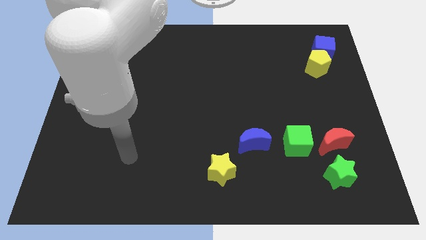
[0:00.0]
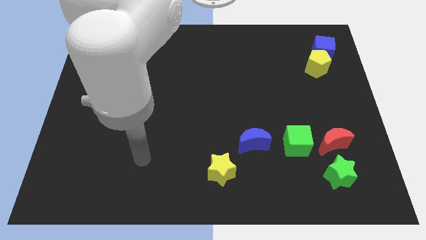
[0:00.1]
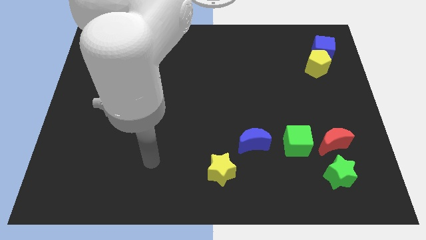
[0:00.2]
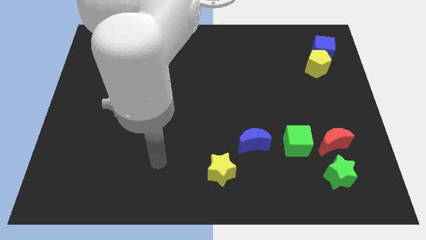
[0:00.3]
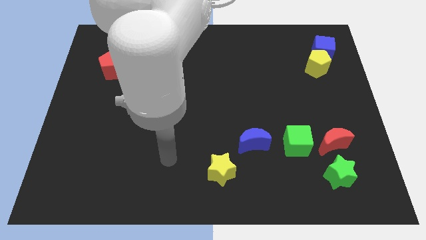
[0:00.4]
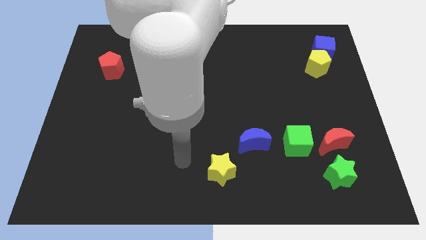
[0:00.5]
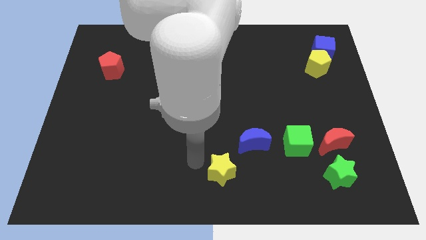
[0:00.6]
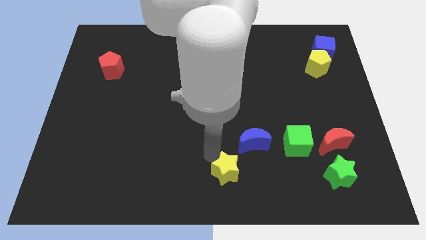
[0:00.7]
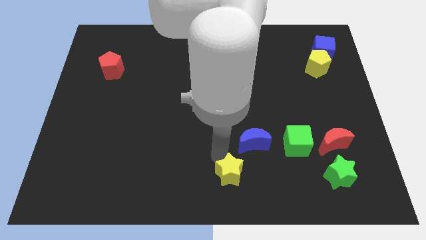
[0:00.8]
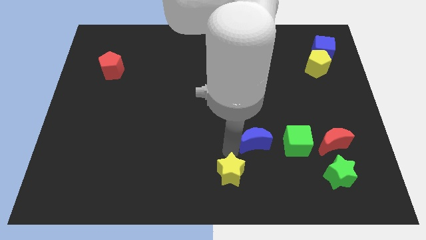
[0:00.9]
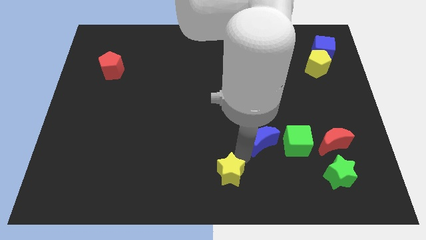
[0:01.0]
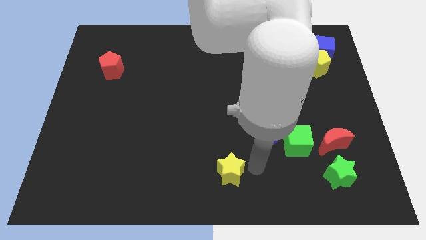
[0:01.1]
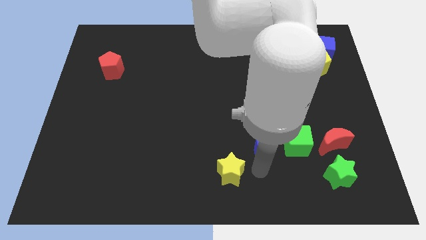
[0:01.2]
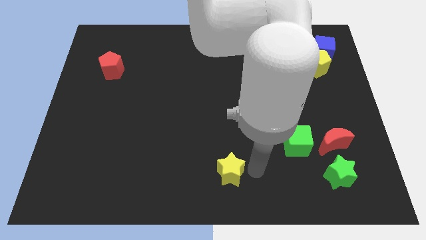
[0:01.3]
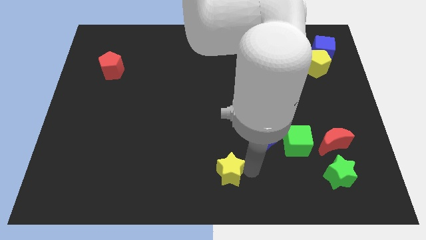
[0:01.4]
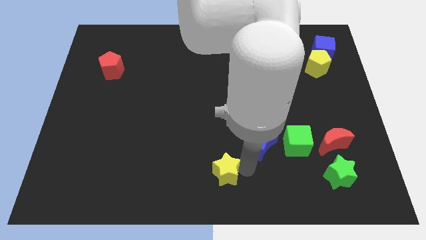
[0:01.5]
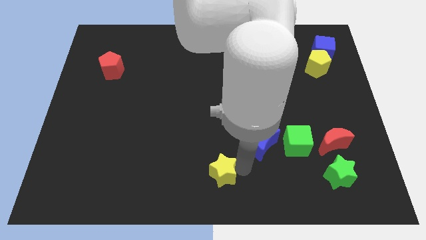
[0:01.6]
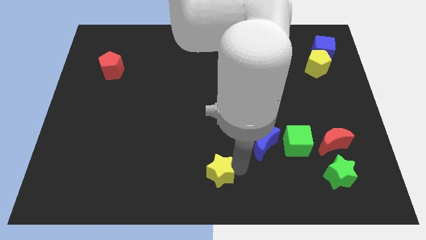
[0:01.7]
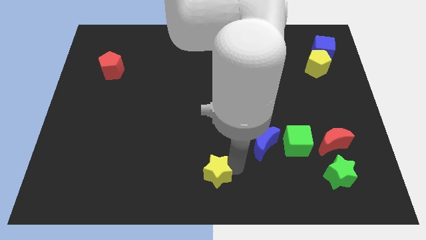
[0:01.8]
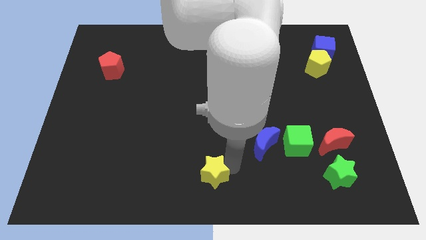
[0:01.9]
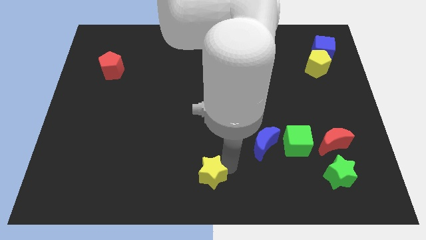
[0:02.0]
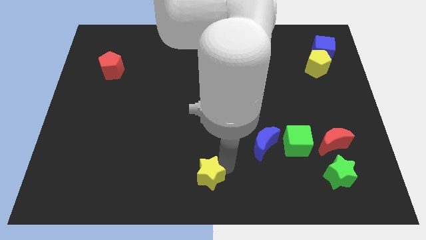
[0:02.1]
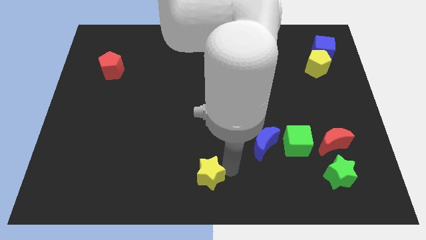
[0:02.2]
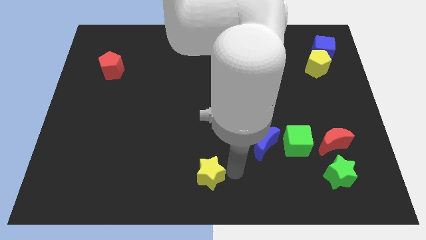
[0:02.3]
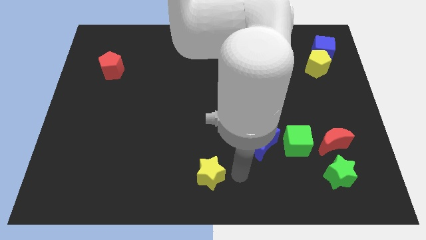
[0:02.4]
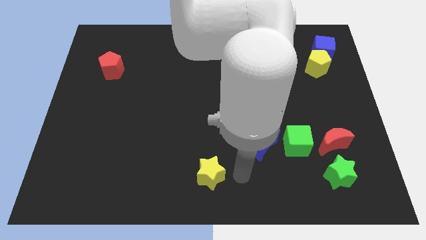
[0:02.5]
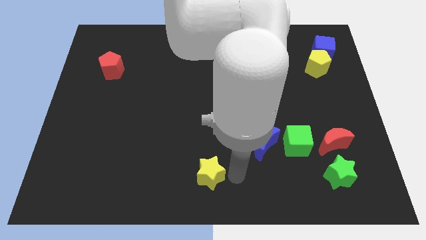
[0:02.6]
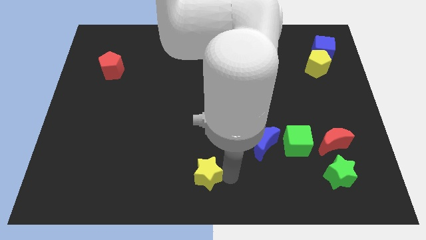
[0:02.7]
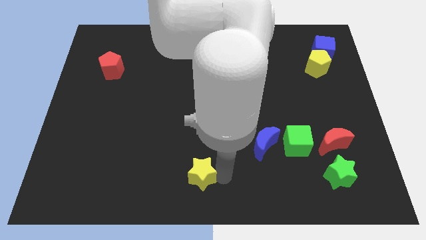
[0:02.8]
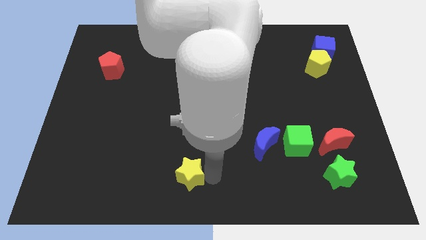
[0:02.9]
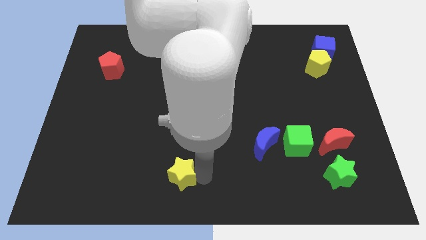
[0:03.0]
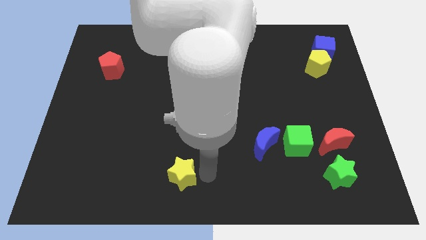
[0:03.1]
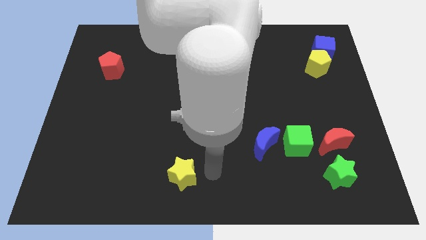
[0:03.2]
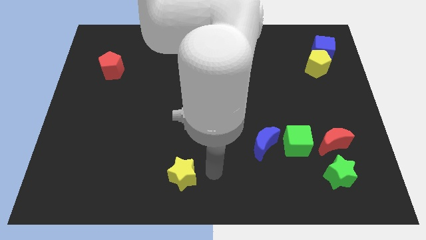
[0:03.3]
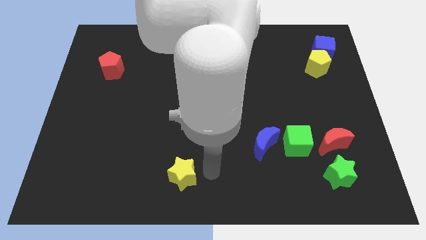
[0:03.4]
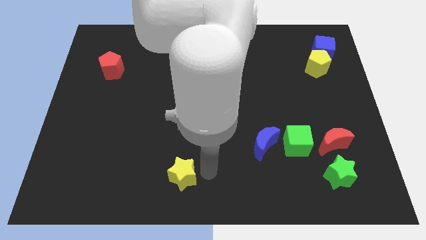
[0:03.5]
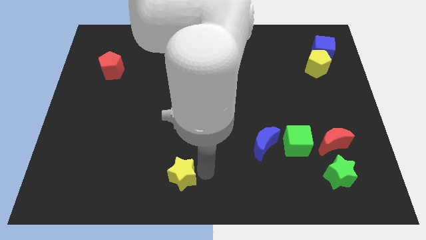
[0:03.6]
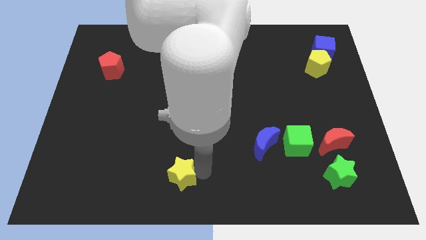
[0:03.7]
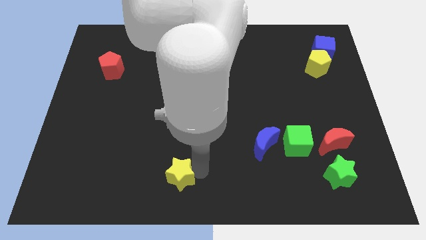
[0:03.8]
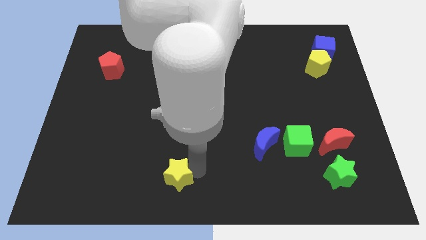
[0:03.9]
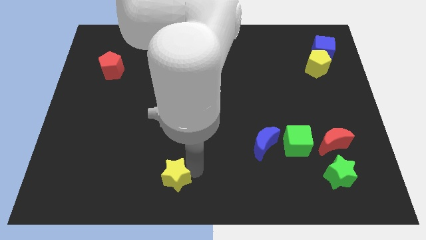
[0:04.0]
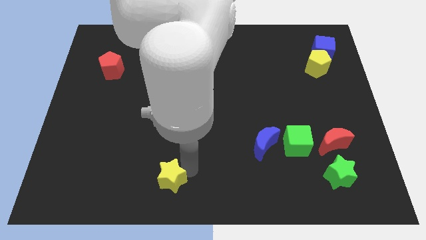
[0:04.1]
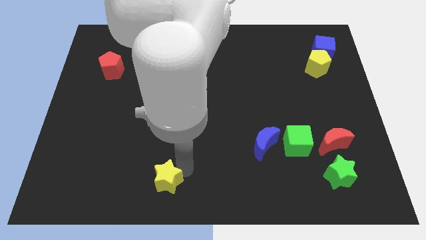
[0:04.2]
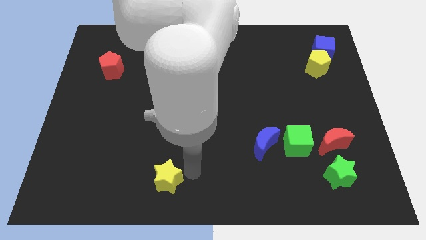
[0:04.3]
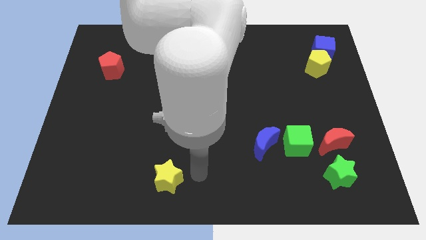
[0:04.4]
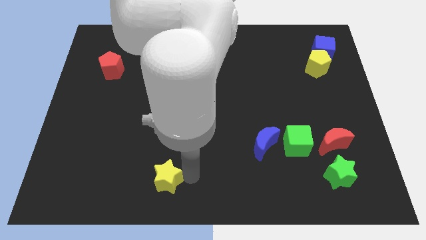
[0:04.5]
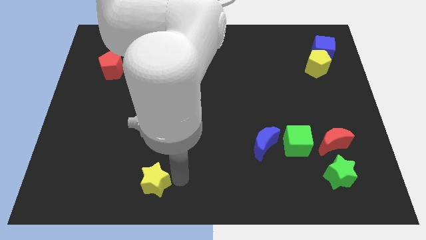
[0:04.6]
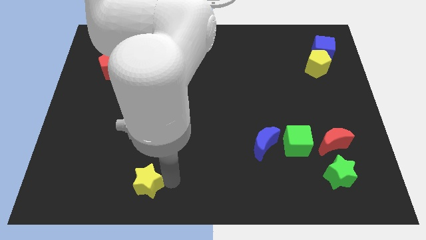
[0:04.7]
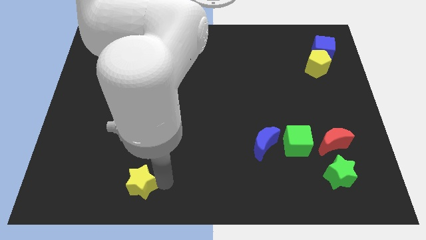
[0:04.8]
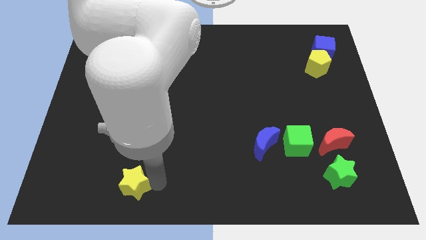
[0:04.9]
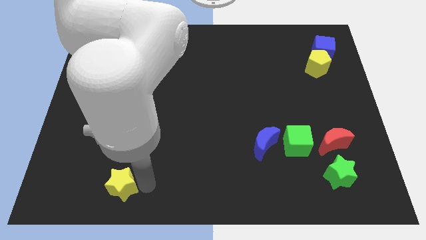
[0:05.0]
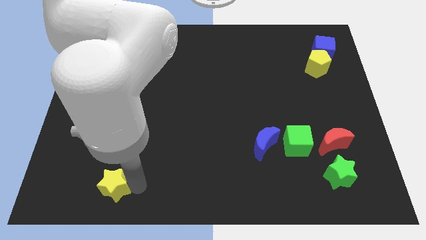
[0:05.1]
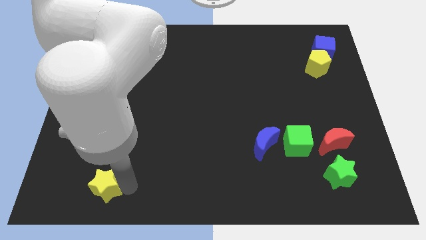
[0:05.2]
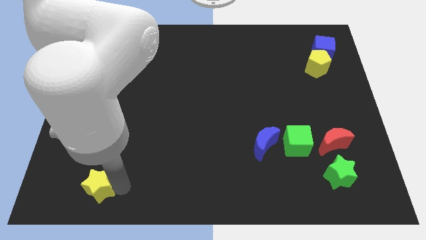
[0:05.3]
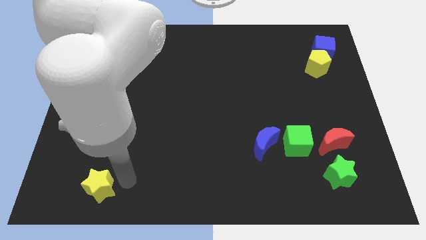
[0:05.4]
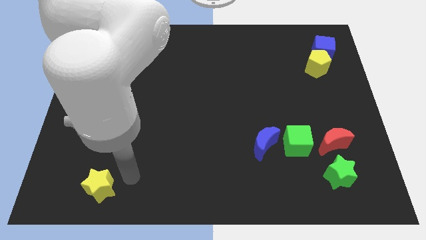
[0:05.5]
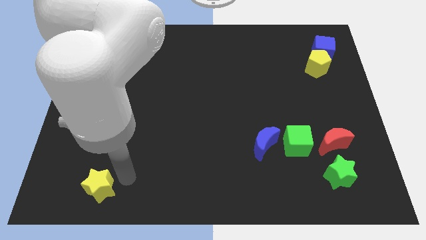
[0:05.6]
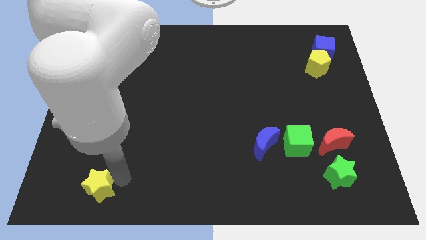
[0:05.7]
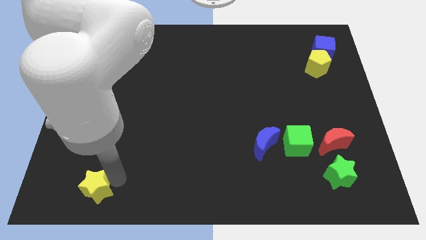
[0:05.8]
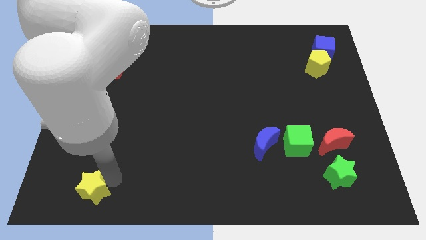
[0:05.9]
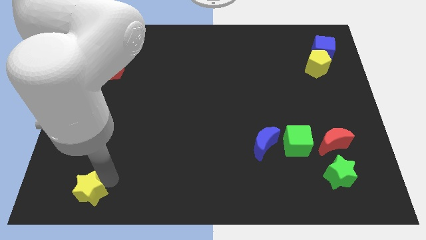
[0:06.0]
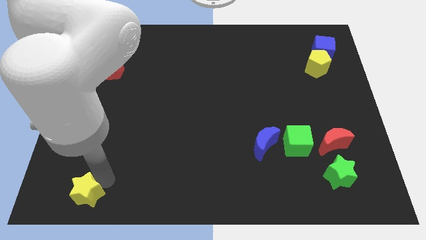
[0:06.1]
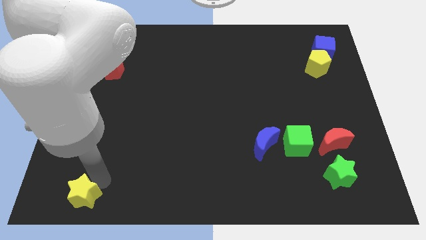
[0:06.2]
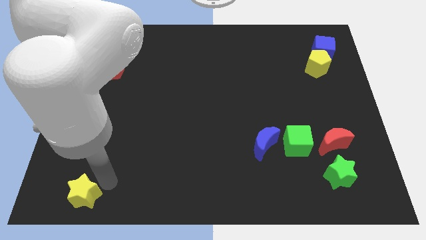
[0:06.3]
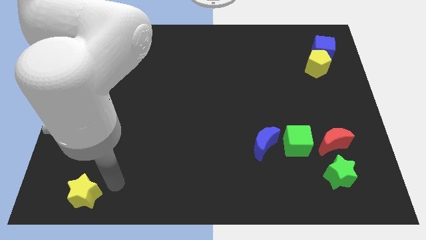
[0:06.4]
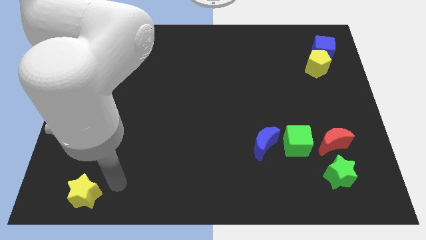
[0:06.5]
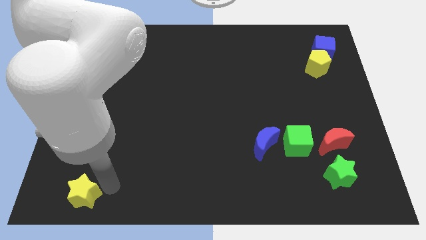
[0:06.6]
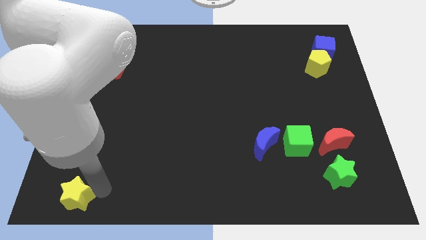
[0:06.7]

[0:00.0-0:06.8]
slide the yellow star to the bottom left corner
